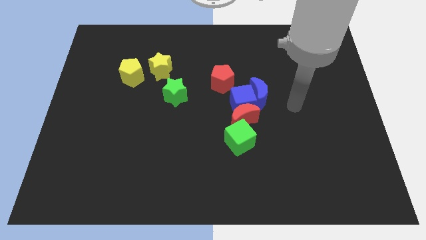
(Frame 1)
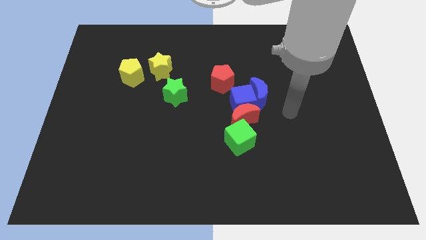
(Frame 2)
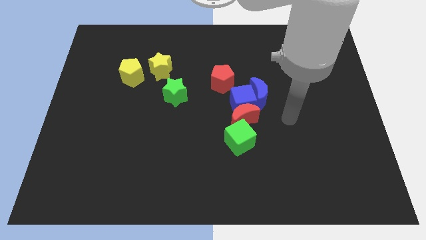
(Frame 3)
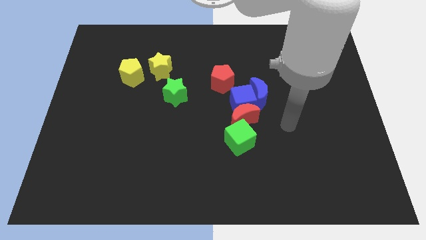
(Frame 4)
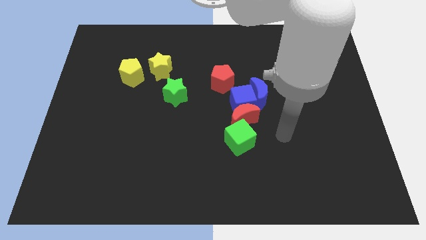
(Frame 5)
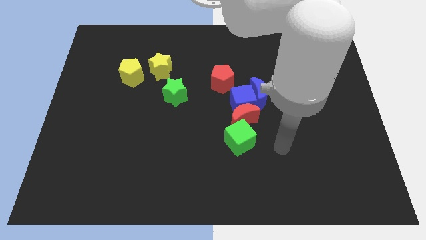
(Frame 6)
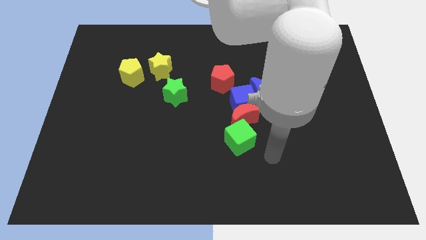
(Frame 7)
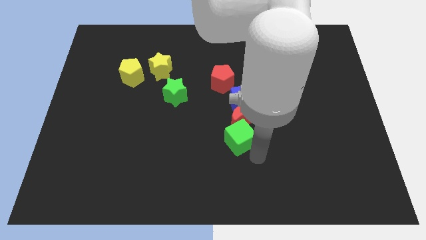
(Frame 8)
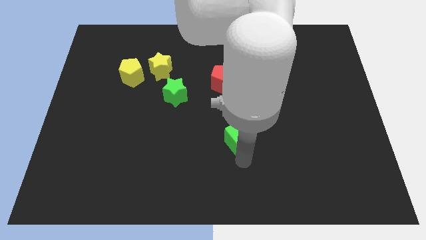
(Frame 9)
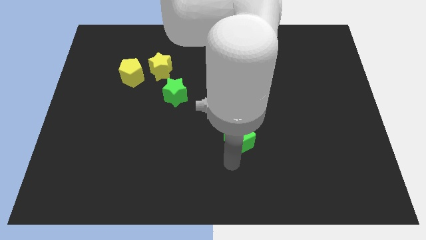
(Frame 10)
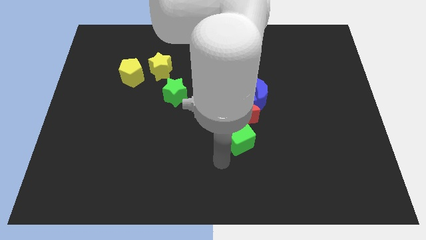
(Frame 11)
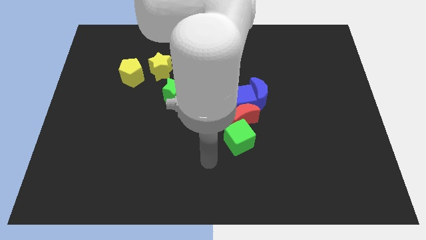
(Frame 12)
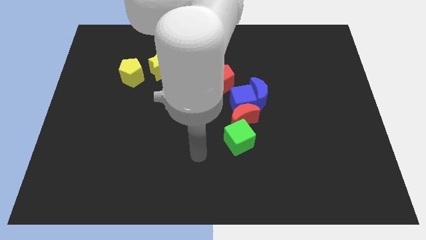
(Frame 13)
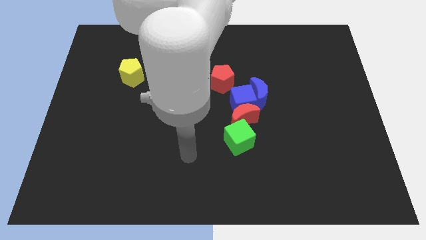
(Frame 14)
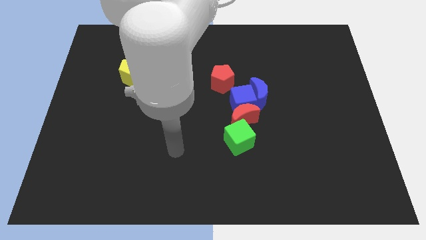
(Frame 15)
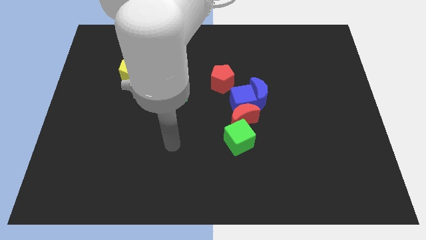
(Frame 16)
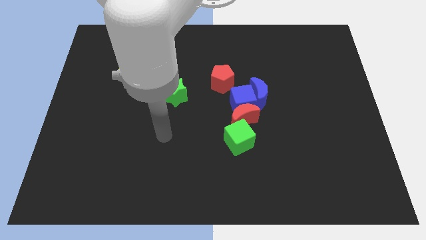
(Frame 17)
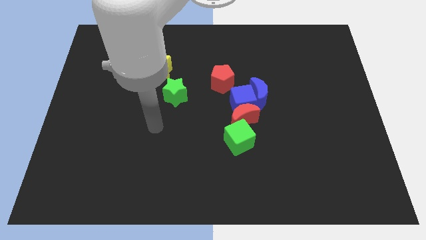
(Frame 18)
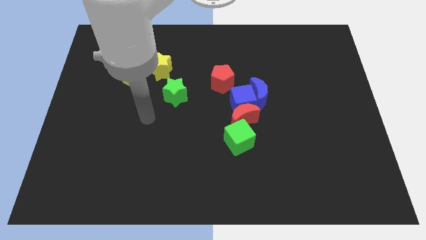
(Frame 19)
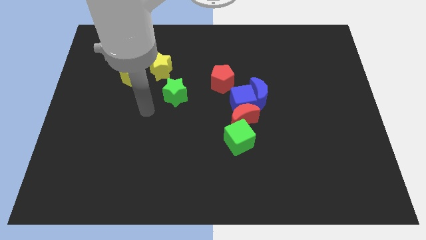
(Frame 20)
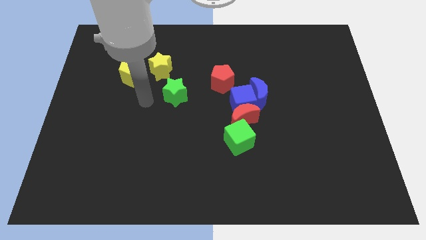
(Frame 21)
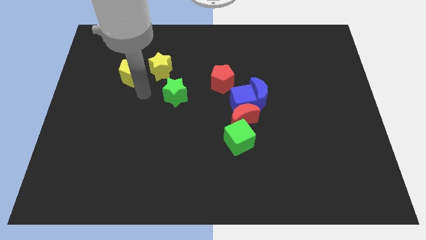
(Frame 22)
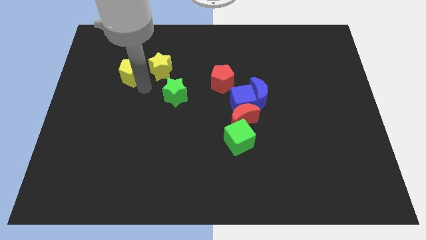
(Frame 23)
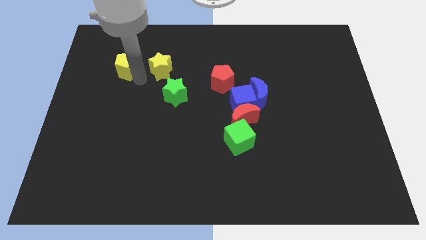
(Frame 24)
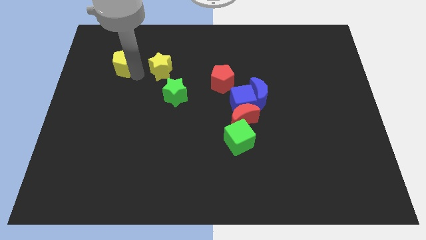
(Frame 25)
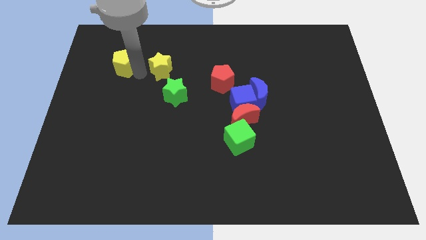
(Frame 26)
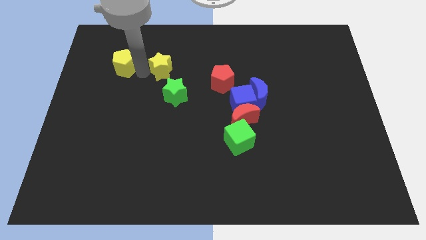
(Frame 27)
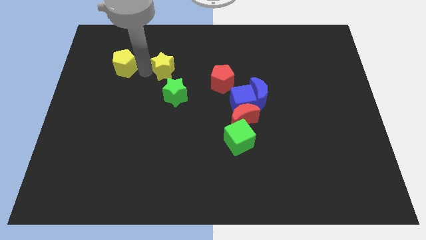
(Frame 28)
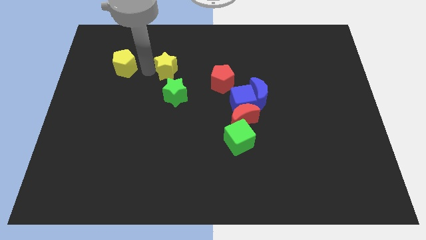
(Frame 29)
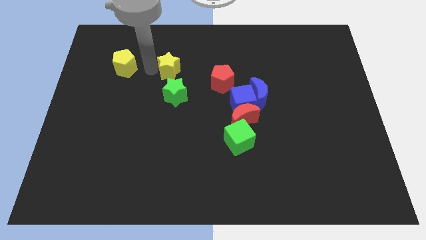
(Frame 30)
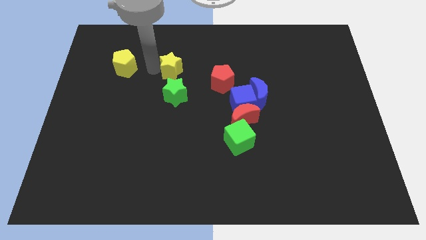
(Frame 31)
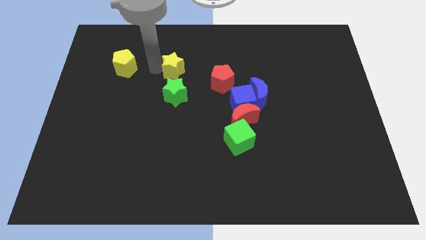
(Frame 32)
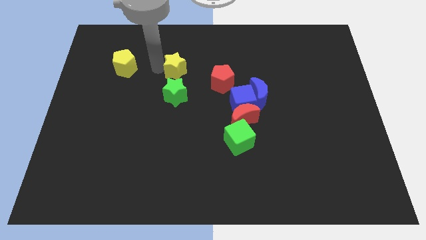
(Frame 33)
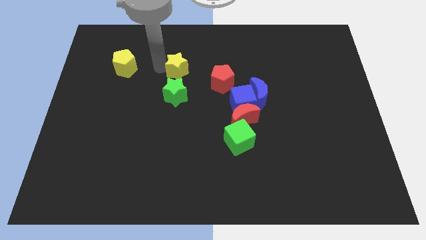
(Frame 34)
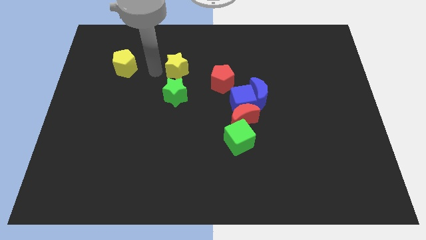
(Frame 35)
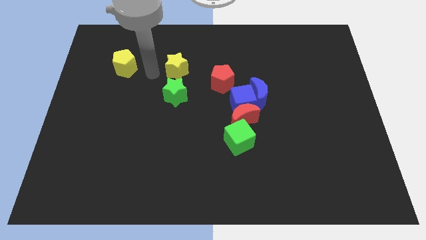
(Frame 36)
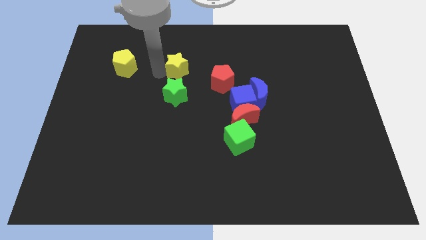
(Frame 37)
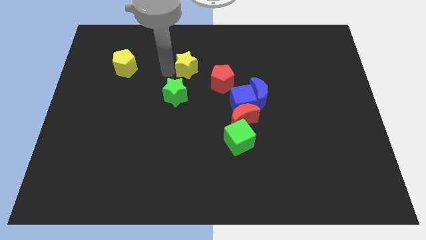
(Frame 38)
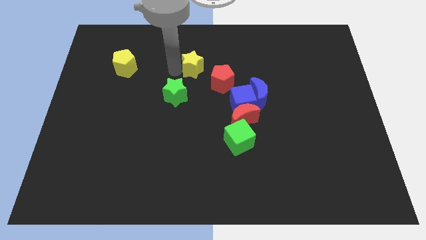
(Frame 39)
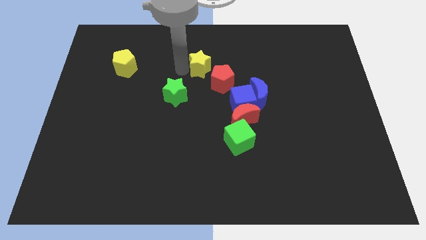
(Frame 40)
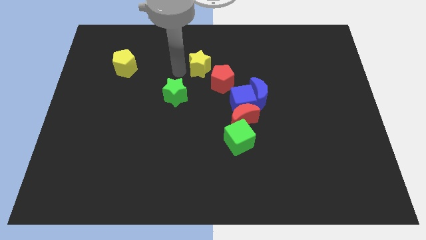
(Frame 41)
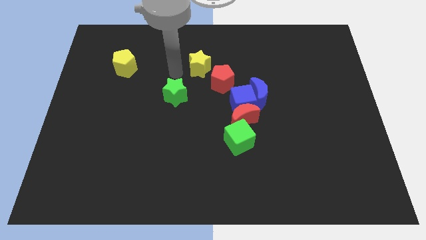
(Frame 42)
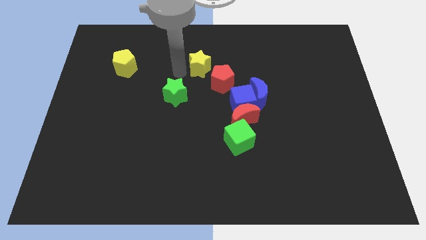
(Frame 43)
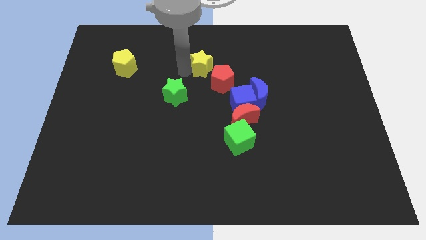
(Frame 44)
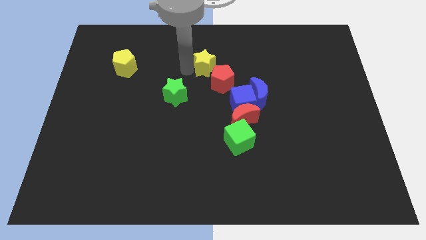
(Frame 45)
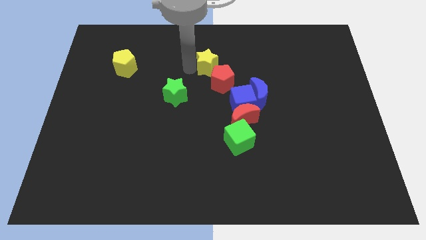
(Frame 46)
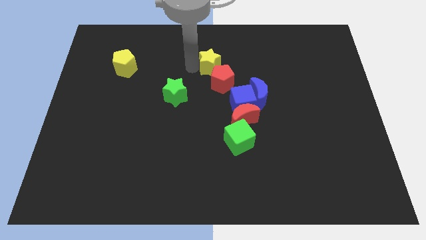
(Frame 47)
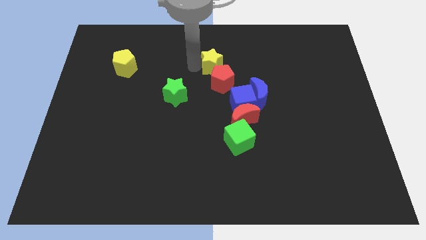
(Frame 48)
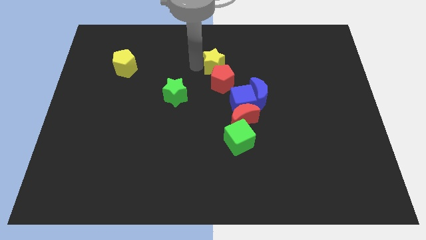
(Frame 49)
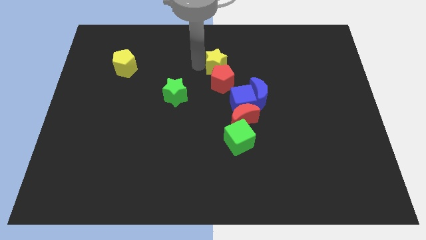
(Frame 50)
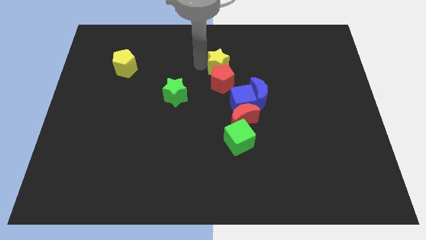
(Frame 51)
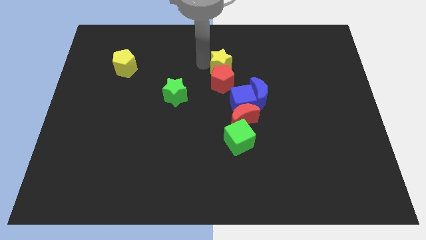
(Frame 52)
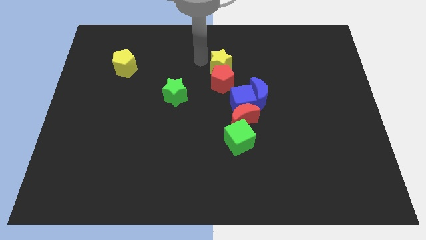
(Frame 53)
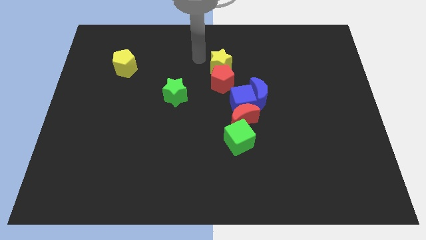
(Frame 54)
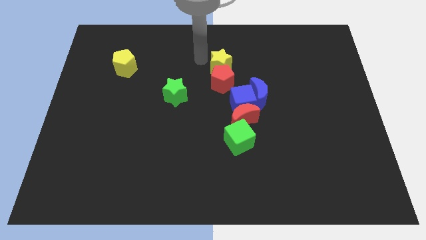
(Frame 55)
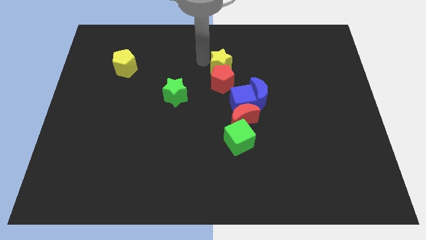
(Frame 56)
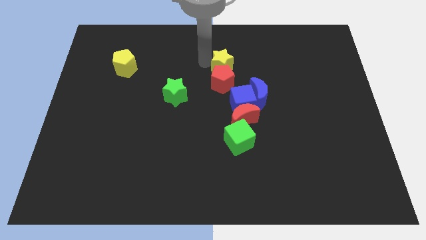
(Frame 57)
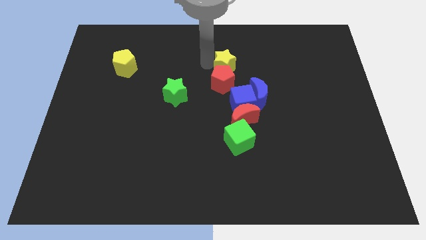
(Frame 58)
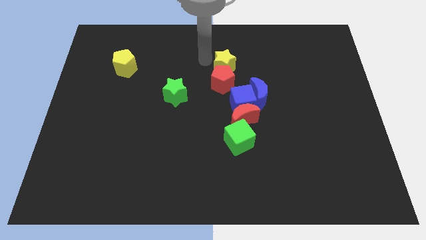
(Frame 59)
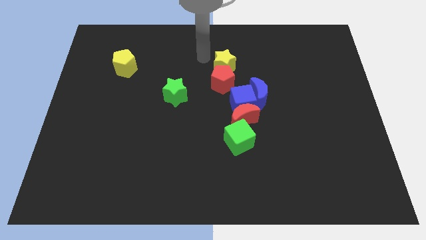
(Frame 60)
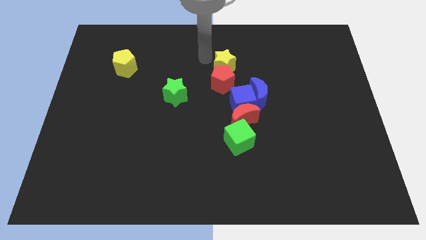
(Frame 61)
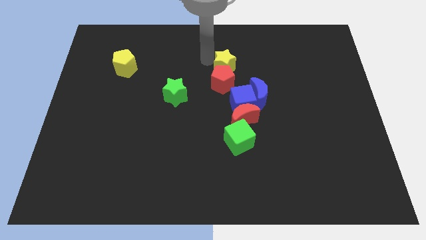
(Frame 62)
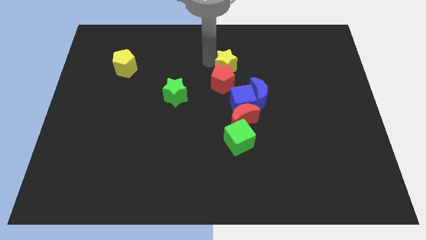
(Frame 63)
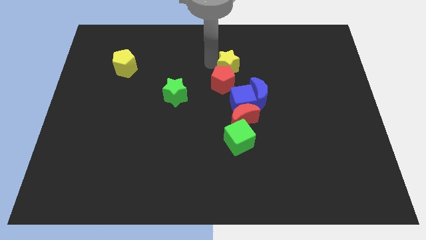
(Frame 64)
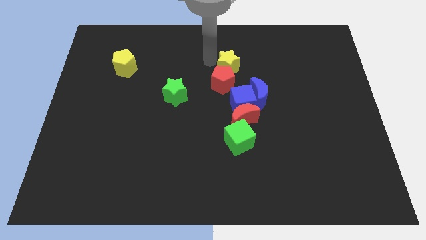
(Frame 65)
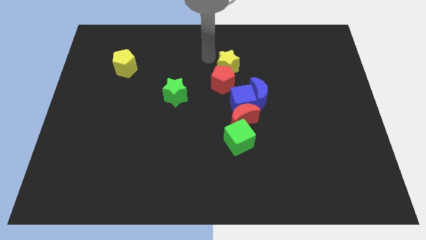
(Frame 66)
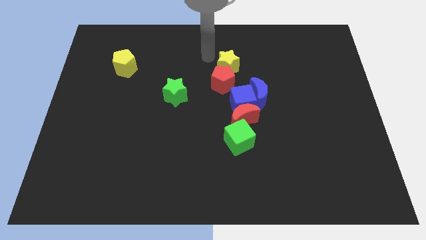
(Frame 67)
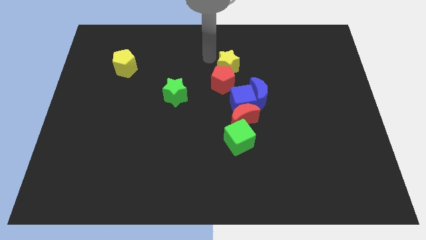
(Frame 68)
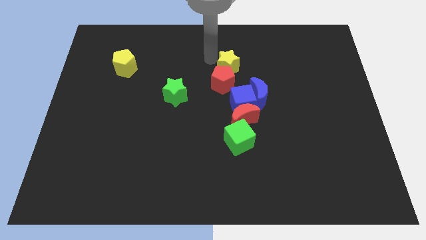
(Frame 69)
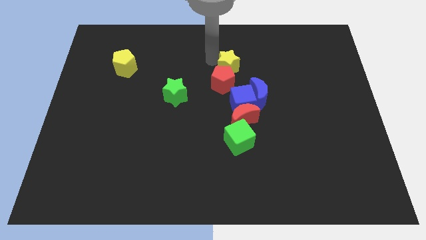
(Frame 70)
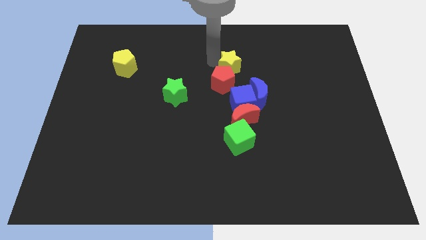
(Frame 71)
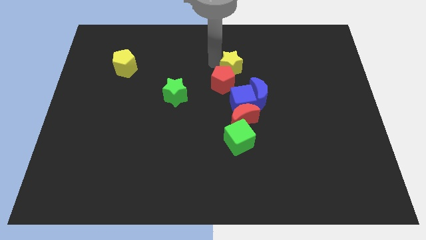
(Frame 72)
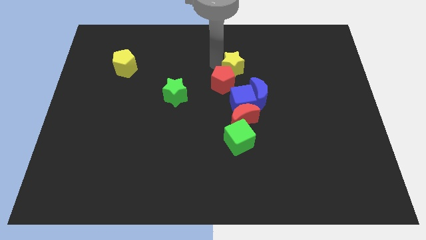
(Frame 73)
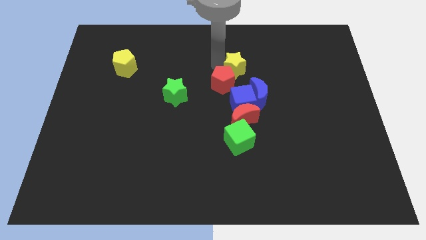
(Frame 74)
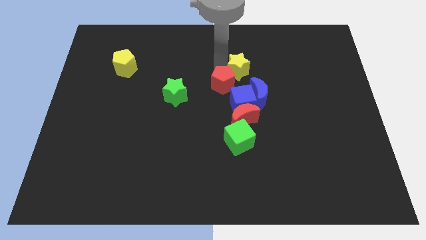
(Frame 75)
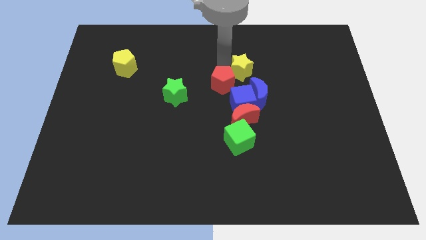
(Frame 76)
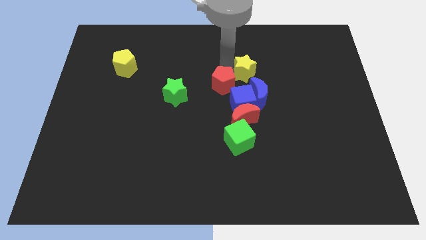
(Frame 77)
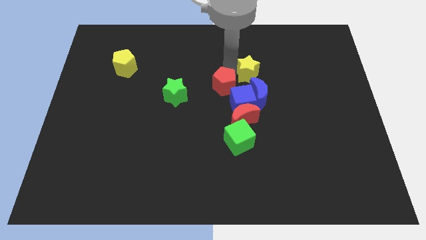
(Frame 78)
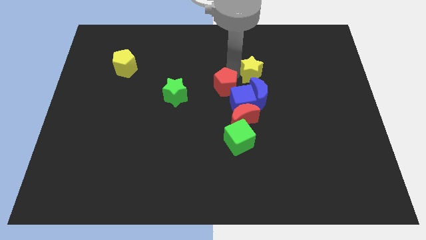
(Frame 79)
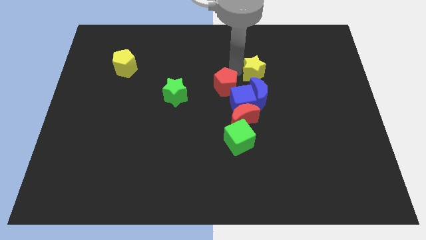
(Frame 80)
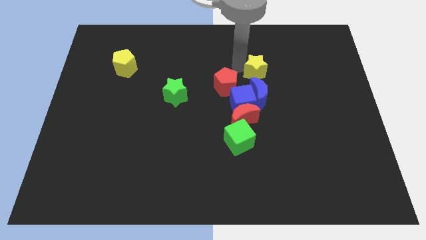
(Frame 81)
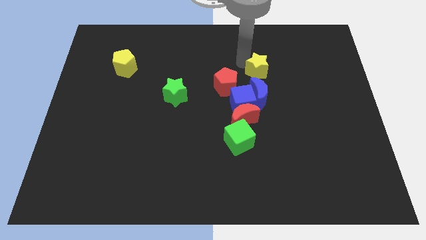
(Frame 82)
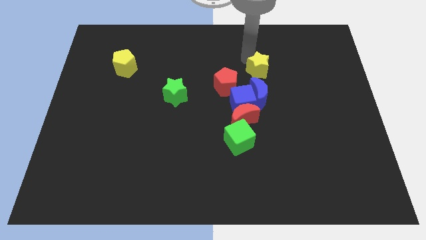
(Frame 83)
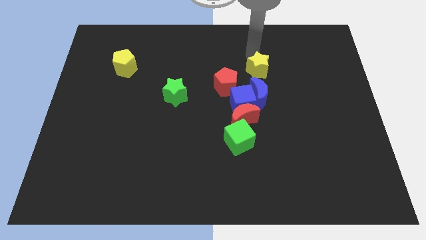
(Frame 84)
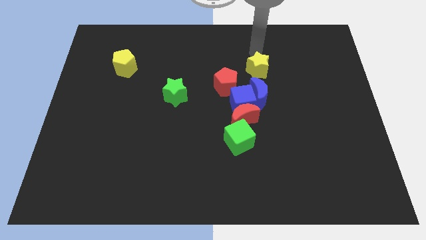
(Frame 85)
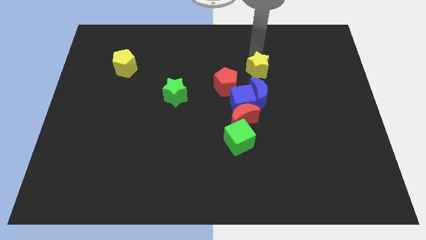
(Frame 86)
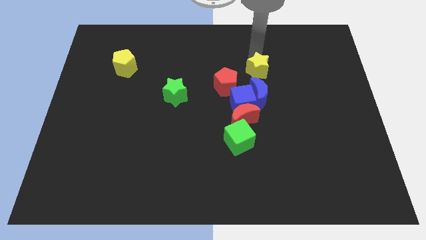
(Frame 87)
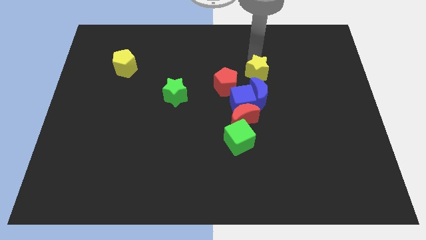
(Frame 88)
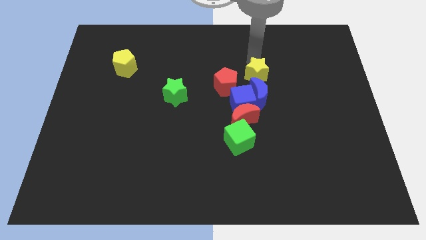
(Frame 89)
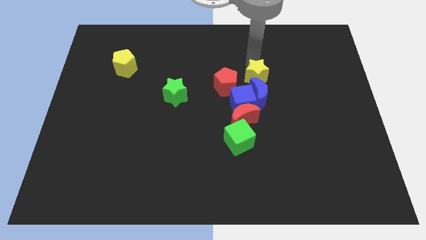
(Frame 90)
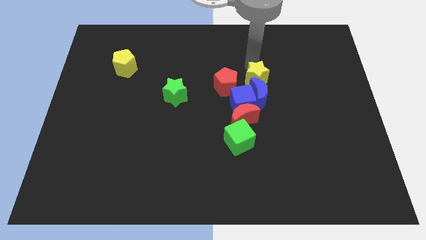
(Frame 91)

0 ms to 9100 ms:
move the yellow star to the blue moon
